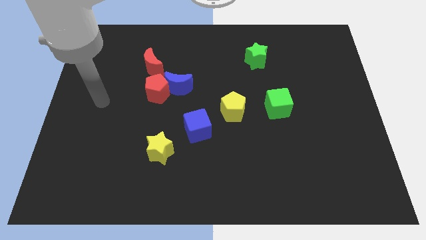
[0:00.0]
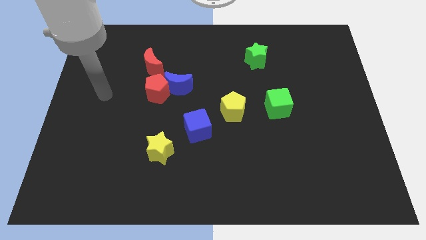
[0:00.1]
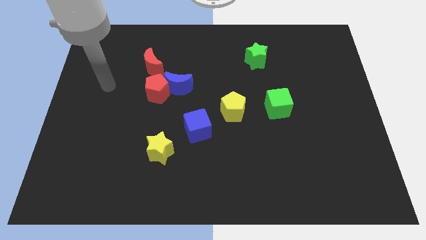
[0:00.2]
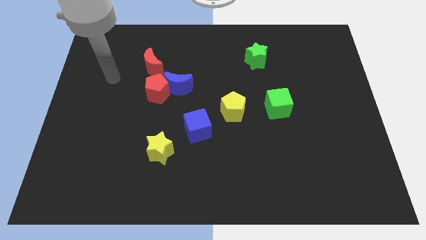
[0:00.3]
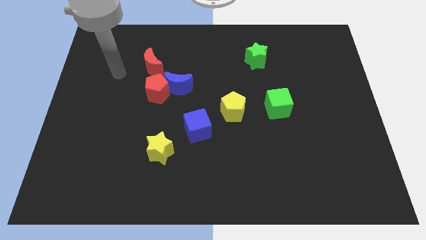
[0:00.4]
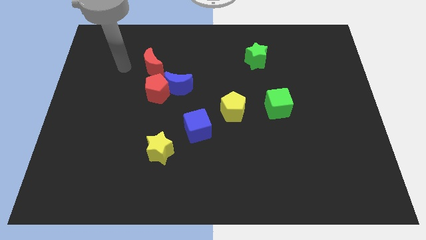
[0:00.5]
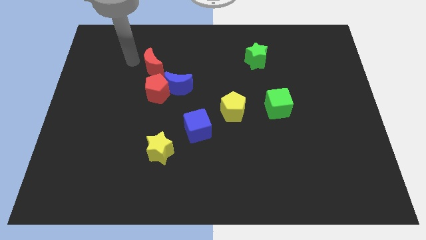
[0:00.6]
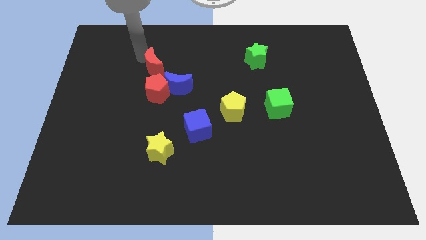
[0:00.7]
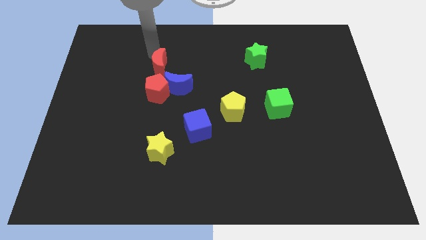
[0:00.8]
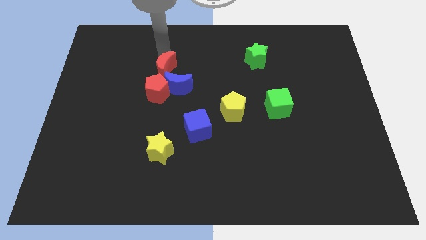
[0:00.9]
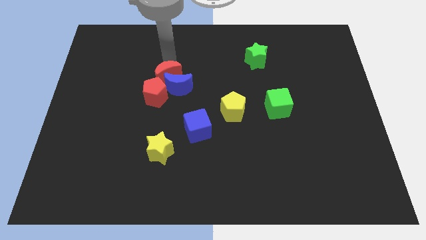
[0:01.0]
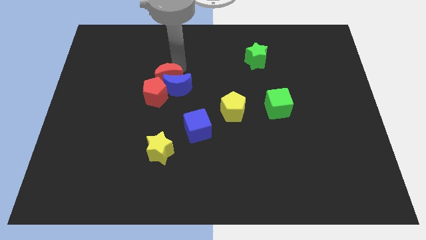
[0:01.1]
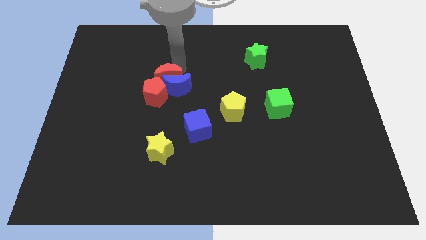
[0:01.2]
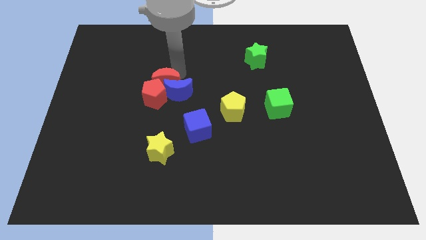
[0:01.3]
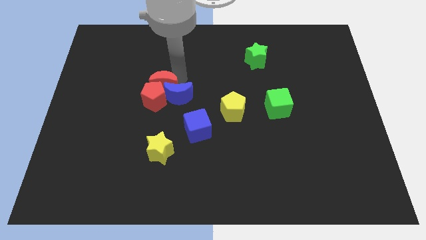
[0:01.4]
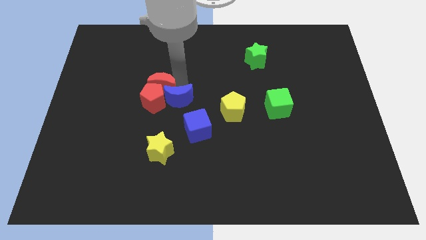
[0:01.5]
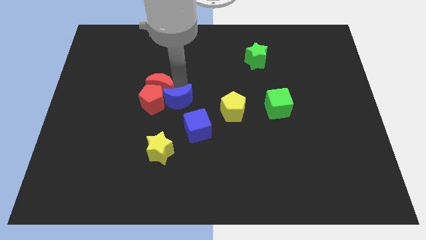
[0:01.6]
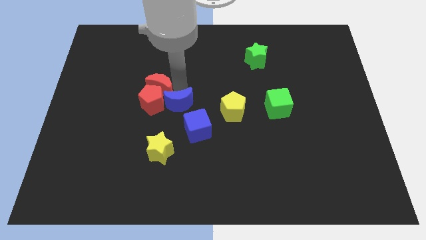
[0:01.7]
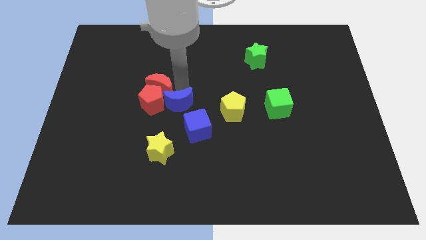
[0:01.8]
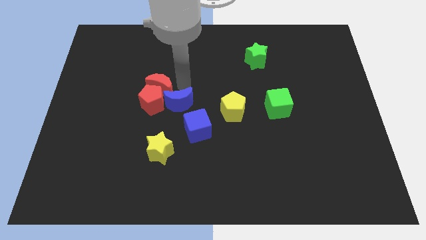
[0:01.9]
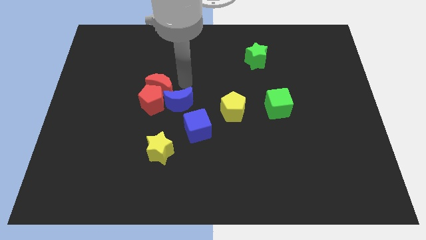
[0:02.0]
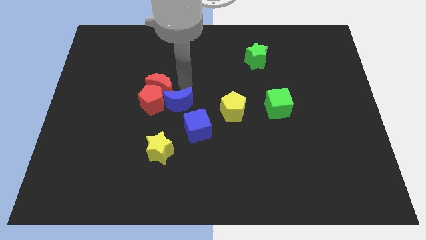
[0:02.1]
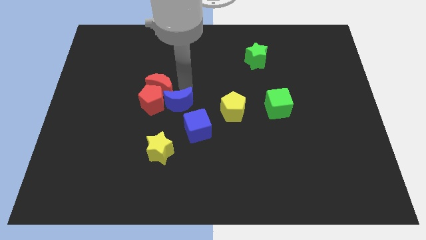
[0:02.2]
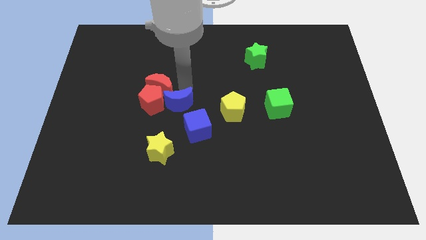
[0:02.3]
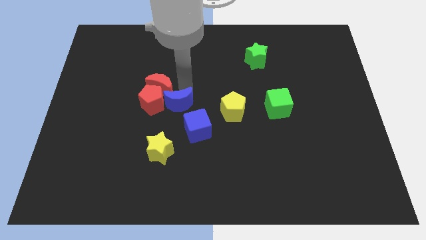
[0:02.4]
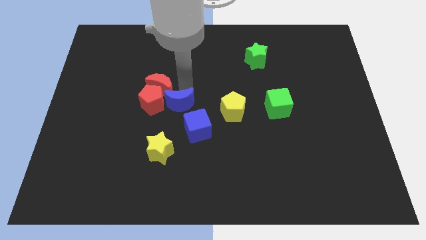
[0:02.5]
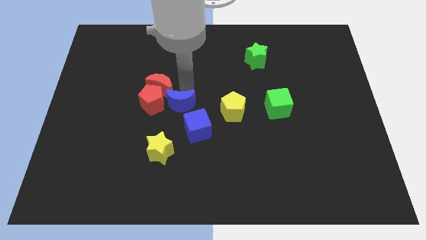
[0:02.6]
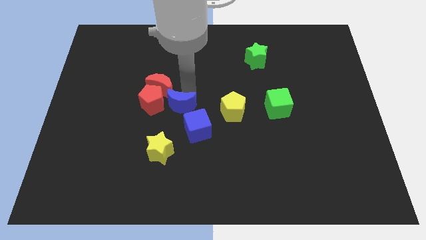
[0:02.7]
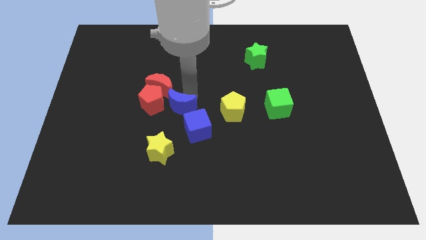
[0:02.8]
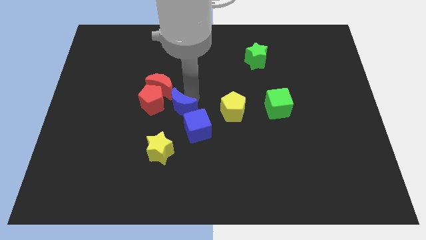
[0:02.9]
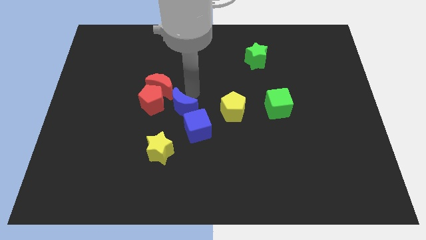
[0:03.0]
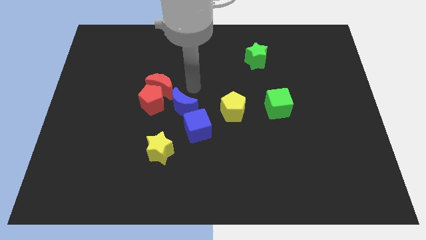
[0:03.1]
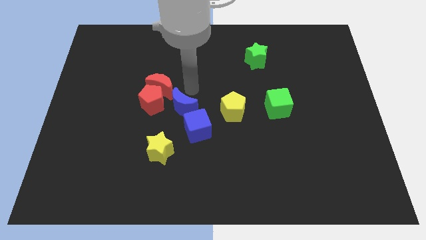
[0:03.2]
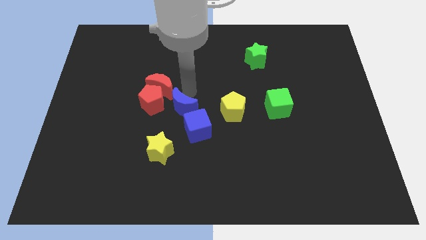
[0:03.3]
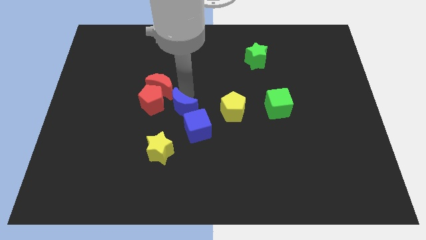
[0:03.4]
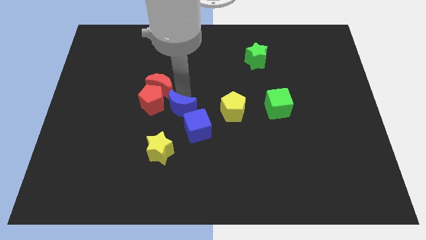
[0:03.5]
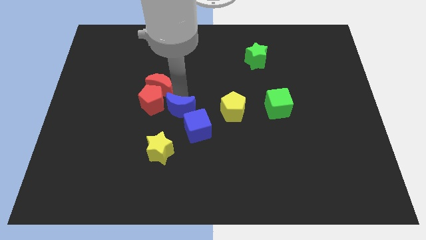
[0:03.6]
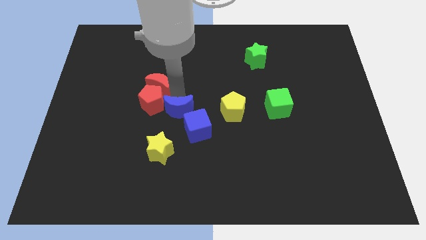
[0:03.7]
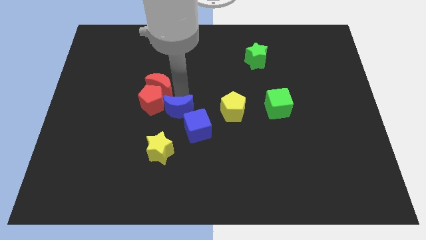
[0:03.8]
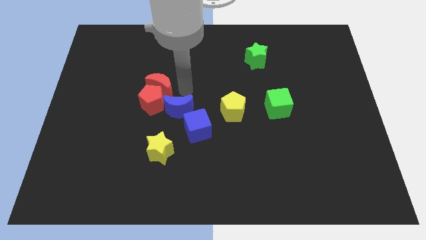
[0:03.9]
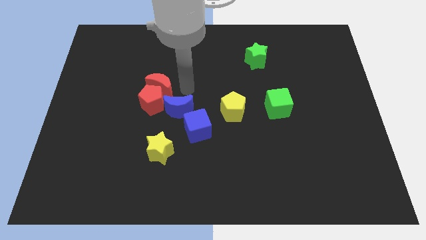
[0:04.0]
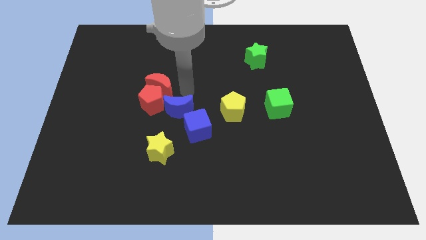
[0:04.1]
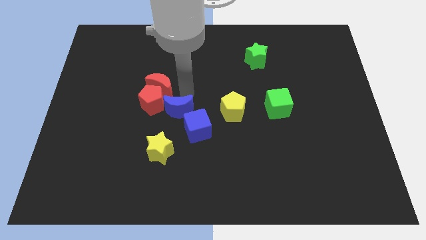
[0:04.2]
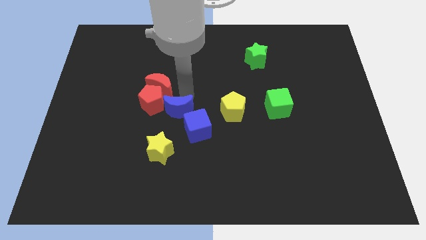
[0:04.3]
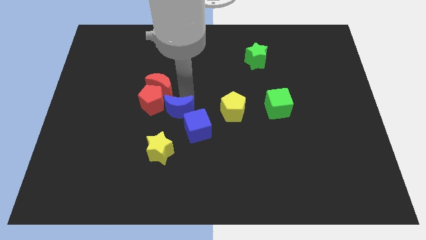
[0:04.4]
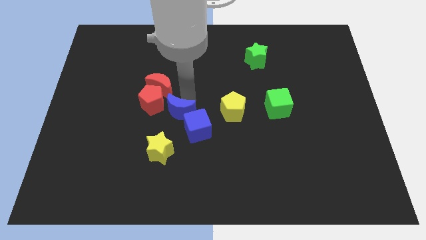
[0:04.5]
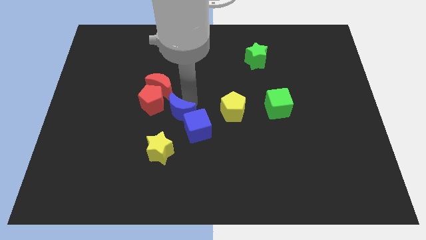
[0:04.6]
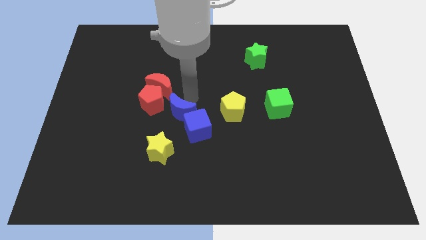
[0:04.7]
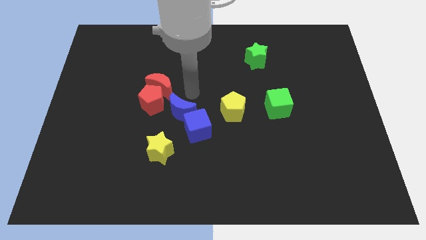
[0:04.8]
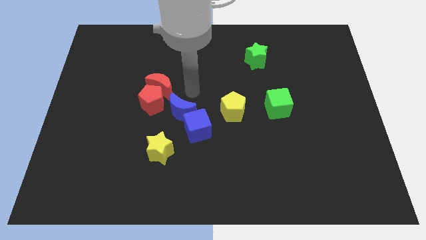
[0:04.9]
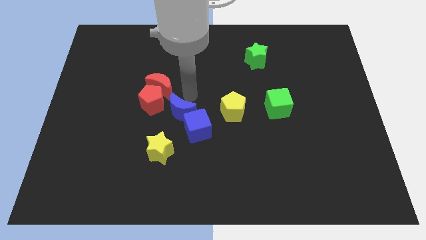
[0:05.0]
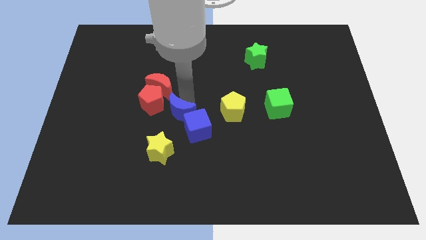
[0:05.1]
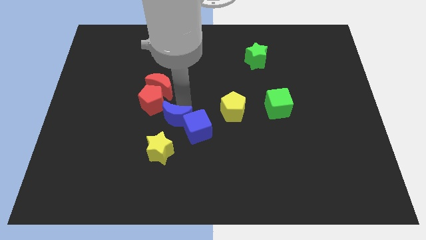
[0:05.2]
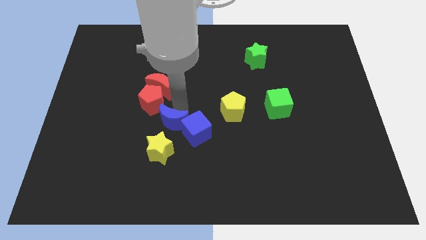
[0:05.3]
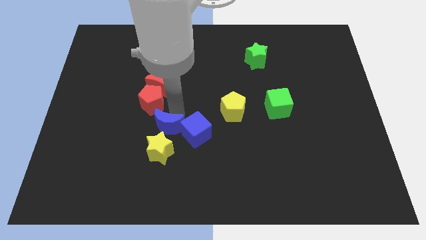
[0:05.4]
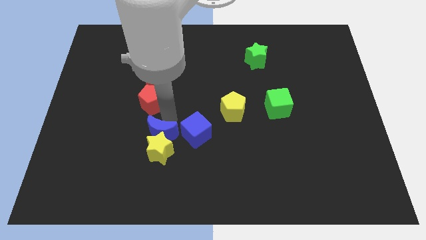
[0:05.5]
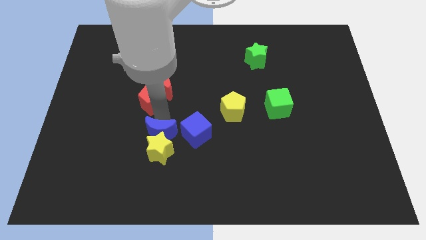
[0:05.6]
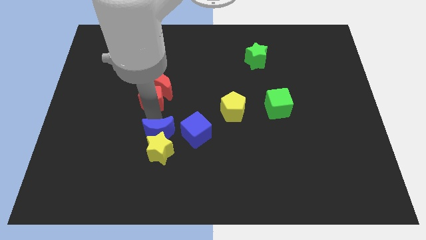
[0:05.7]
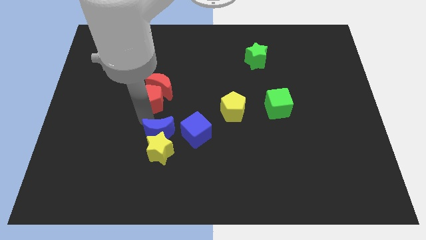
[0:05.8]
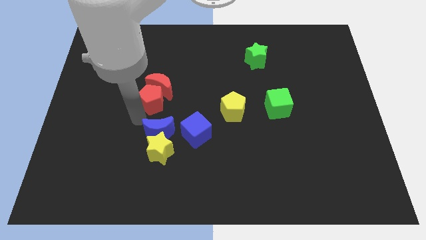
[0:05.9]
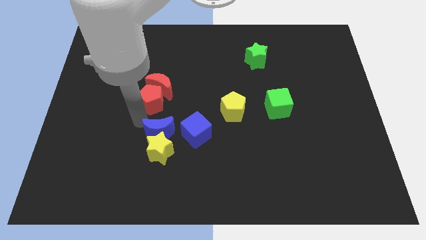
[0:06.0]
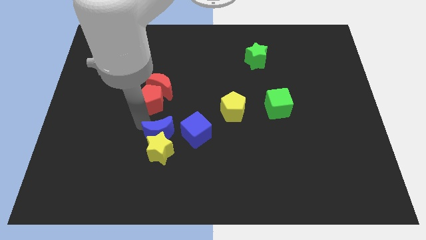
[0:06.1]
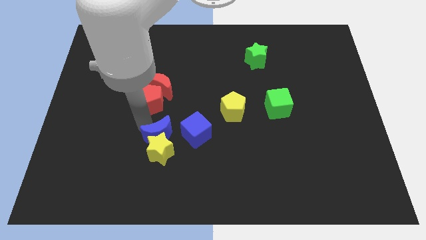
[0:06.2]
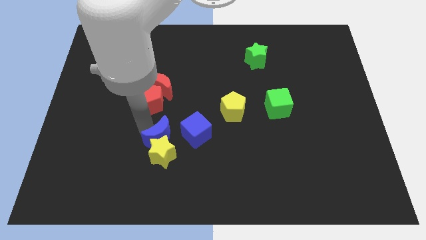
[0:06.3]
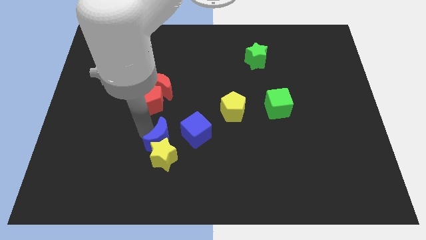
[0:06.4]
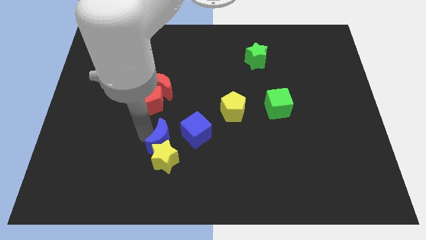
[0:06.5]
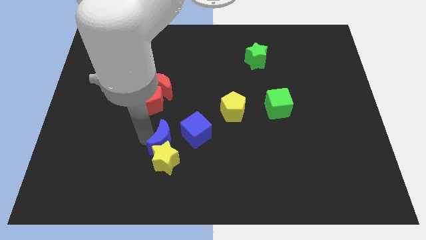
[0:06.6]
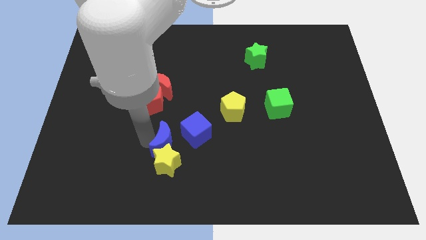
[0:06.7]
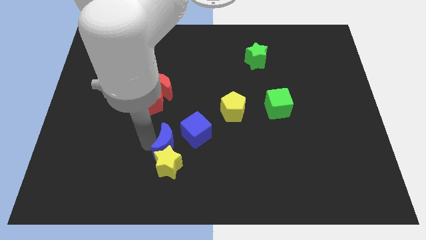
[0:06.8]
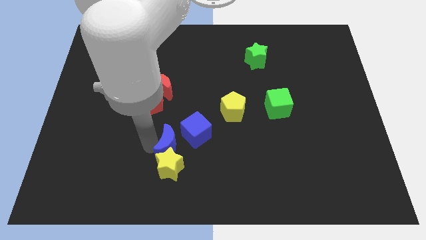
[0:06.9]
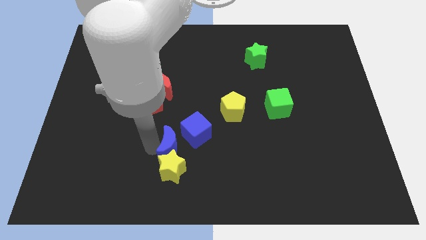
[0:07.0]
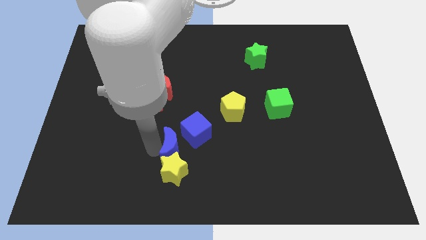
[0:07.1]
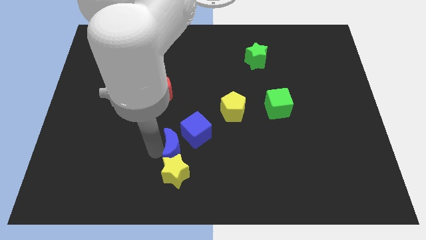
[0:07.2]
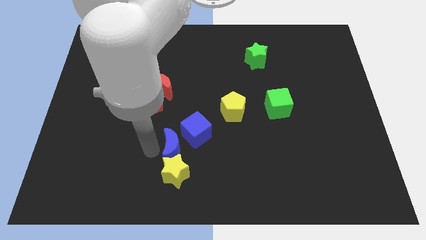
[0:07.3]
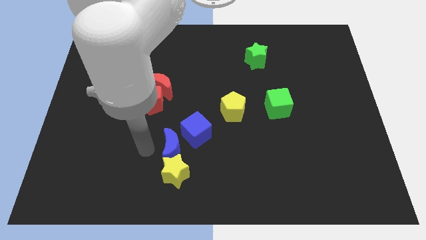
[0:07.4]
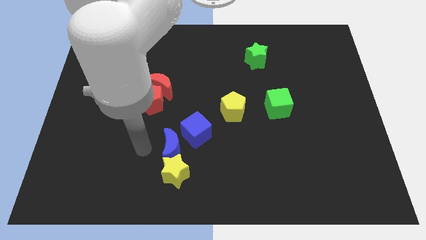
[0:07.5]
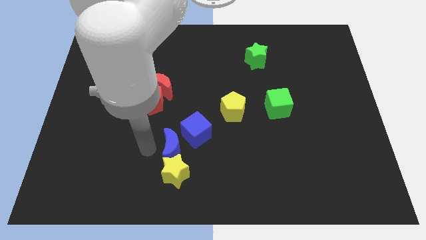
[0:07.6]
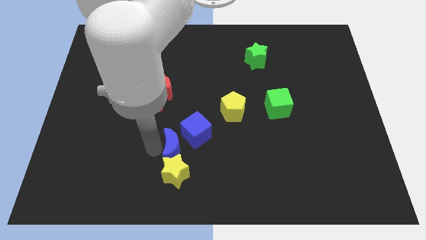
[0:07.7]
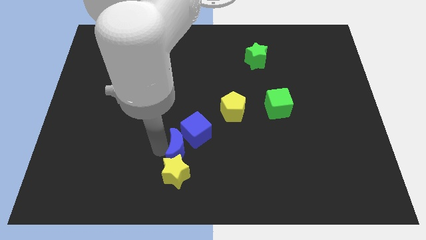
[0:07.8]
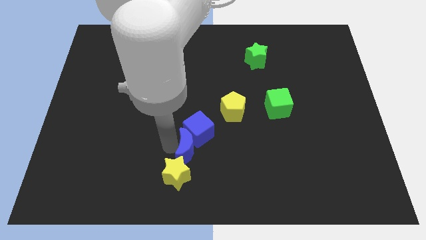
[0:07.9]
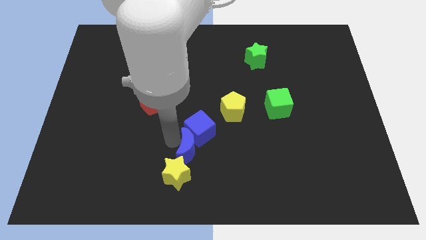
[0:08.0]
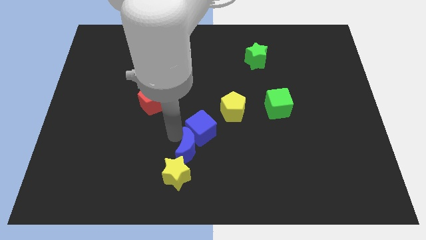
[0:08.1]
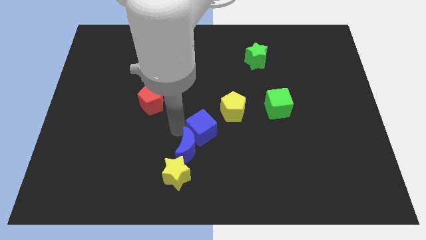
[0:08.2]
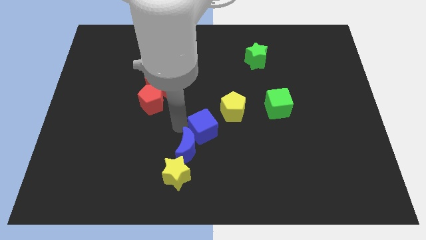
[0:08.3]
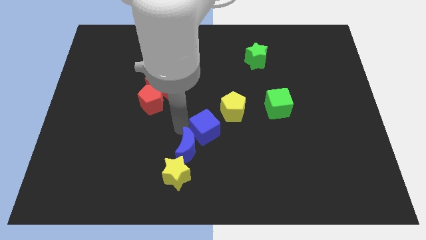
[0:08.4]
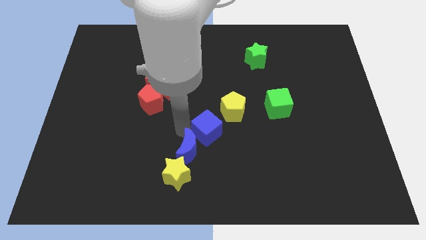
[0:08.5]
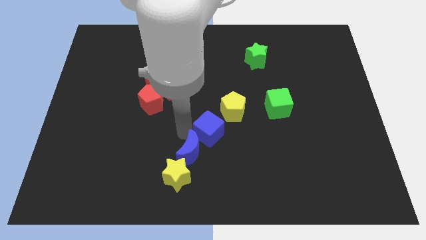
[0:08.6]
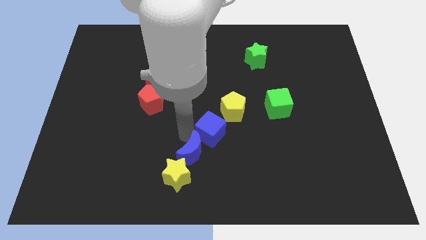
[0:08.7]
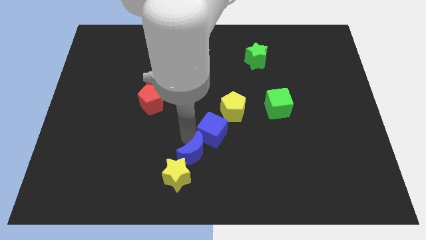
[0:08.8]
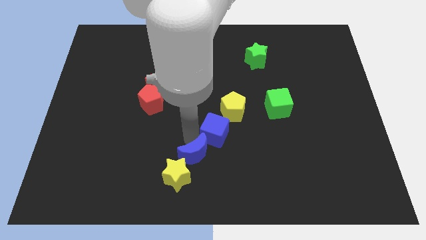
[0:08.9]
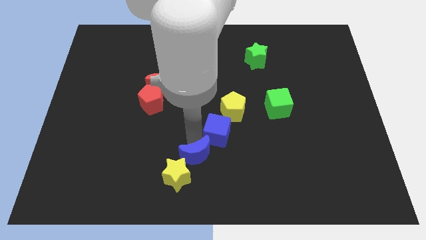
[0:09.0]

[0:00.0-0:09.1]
move the blue moon to the bottom
